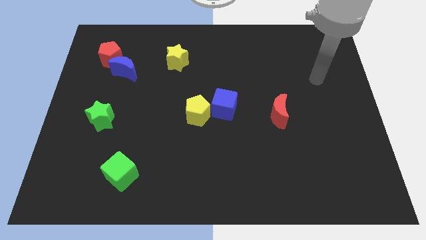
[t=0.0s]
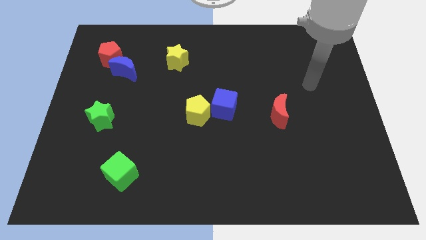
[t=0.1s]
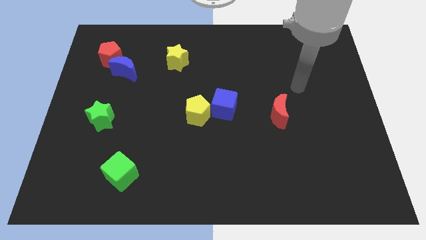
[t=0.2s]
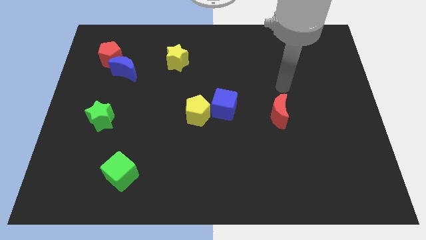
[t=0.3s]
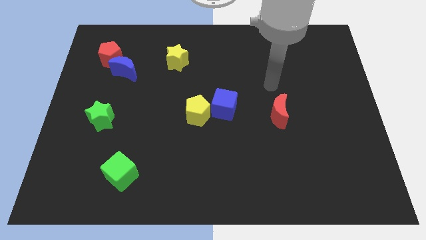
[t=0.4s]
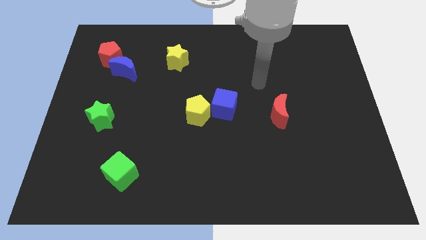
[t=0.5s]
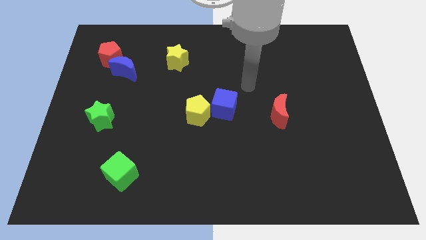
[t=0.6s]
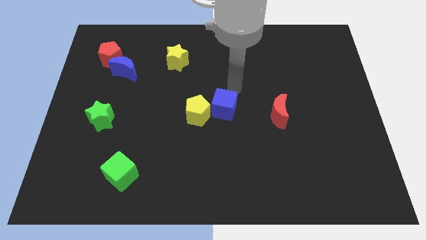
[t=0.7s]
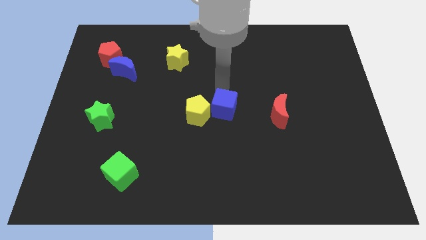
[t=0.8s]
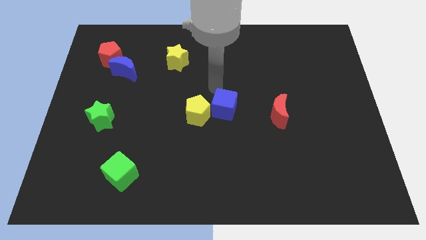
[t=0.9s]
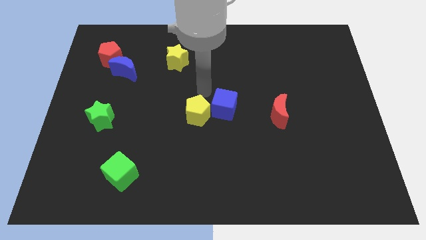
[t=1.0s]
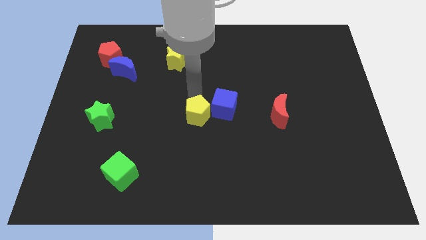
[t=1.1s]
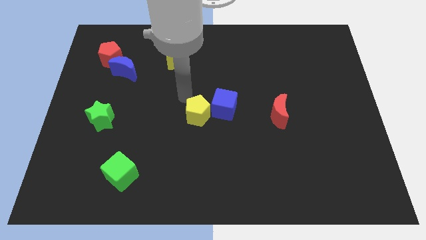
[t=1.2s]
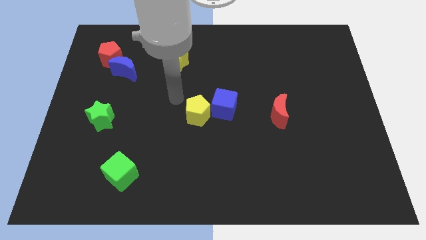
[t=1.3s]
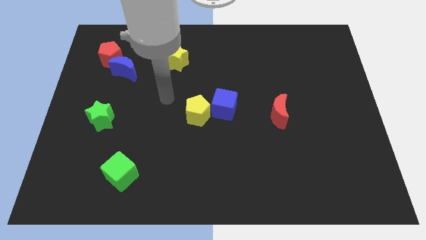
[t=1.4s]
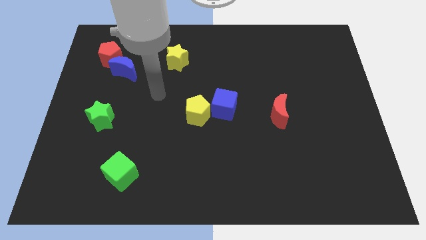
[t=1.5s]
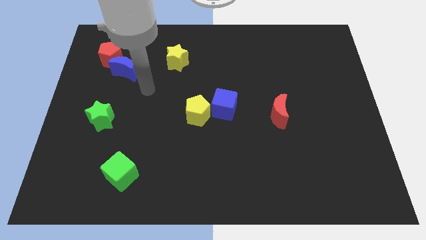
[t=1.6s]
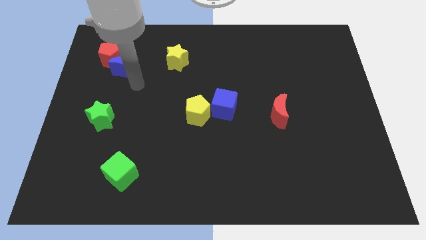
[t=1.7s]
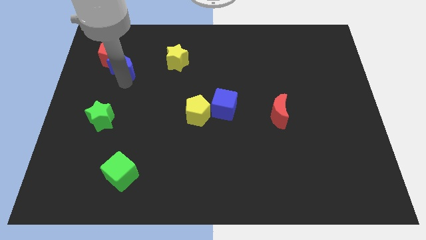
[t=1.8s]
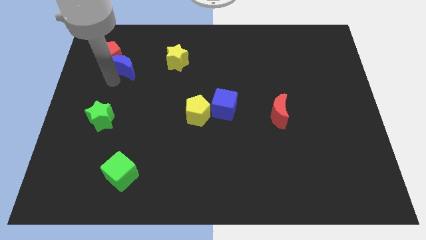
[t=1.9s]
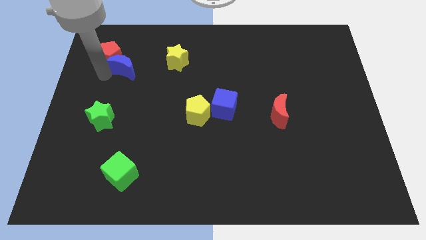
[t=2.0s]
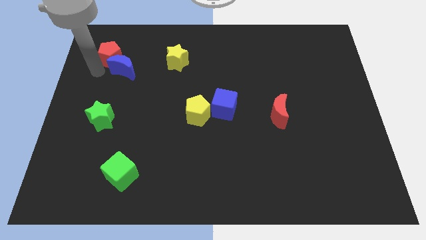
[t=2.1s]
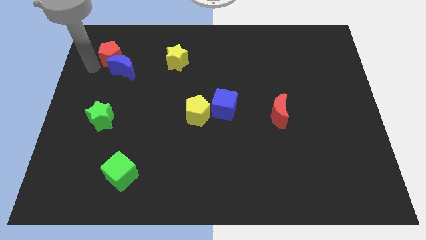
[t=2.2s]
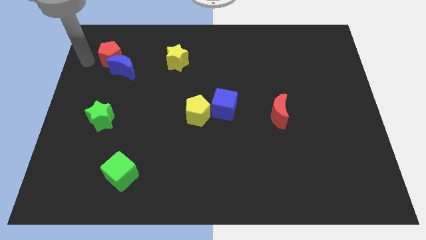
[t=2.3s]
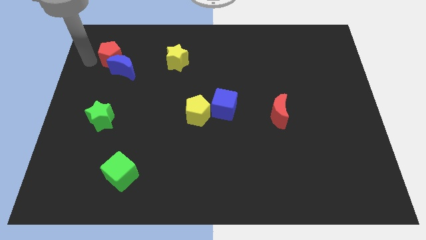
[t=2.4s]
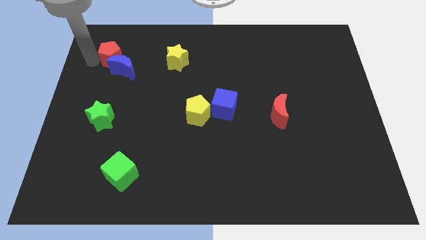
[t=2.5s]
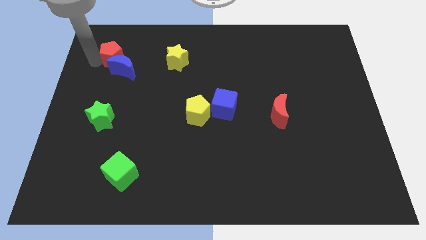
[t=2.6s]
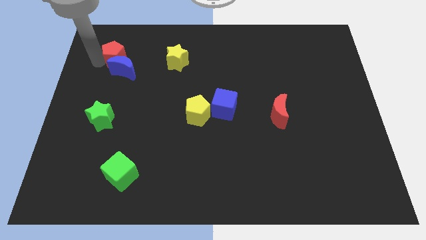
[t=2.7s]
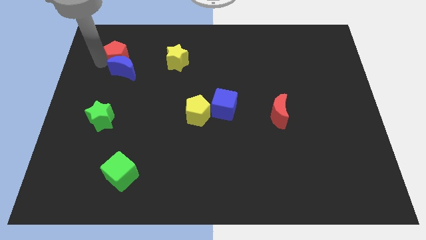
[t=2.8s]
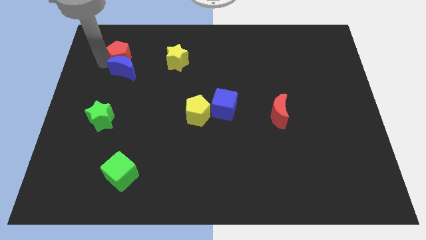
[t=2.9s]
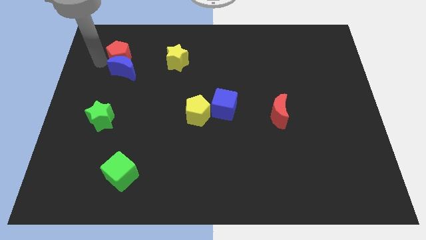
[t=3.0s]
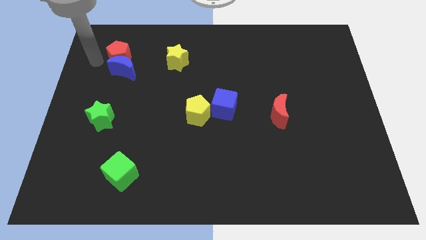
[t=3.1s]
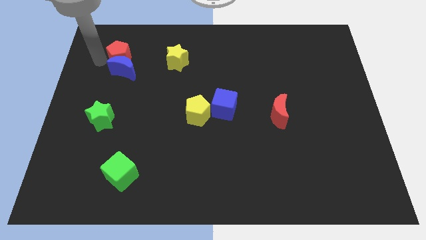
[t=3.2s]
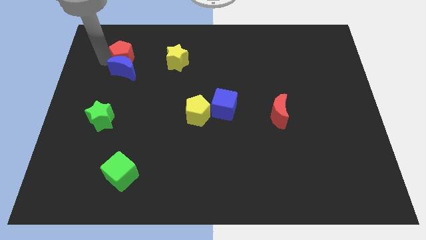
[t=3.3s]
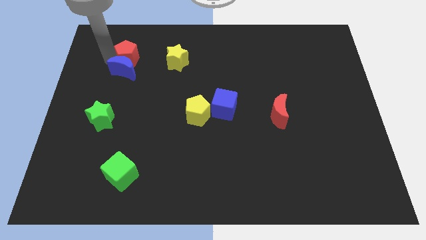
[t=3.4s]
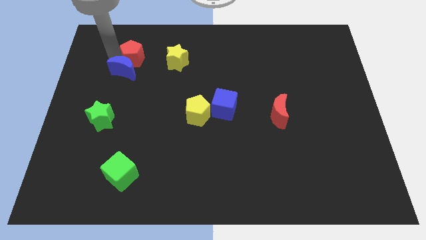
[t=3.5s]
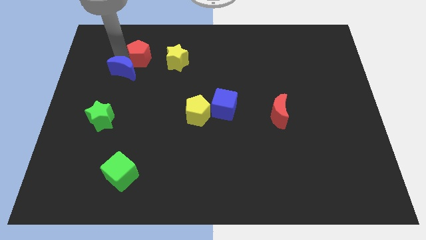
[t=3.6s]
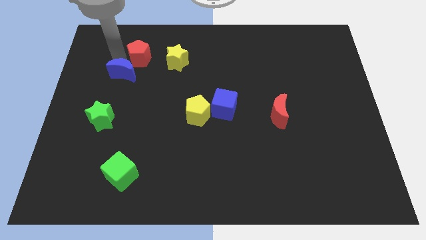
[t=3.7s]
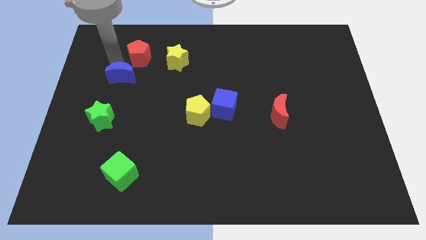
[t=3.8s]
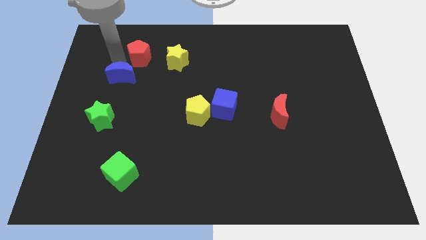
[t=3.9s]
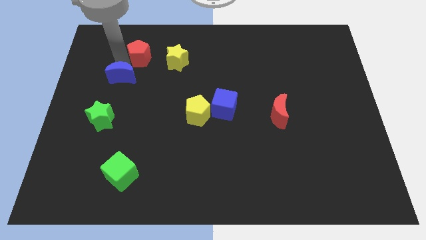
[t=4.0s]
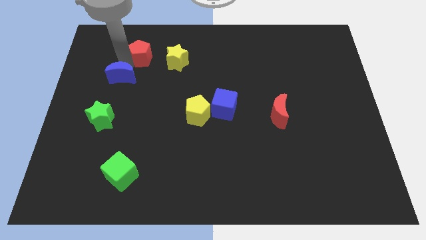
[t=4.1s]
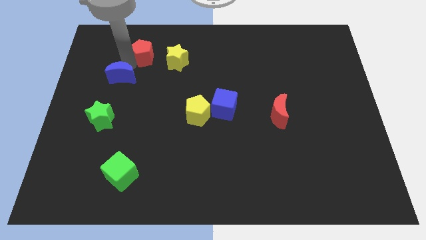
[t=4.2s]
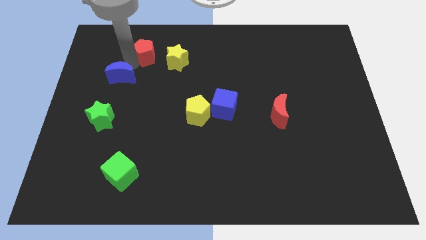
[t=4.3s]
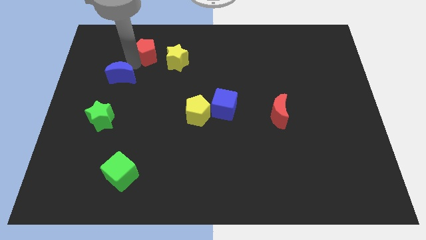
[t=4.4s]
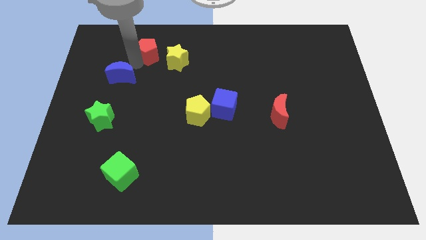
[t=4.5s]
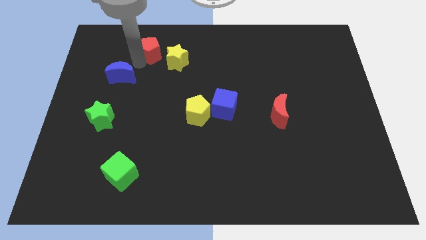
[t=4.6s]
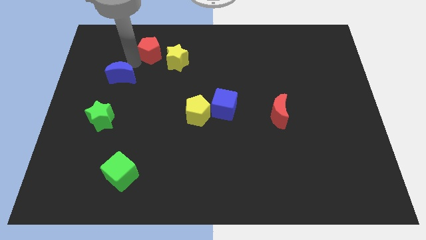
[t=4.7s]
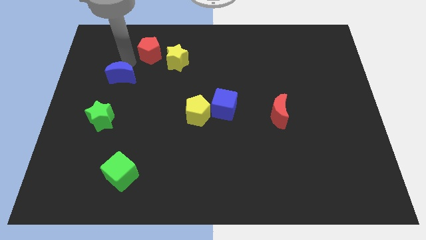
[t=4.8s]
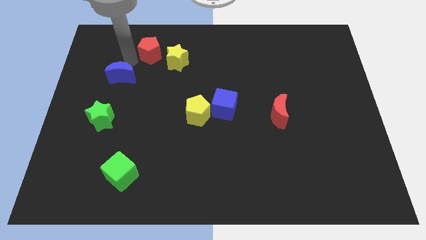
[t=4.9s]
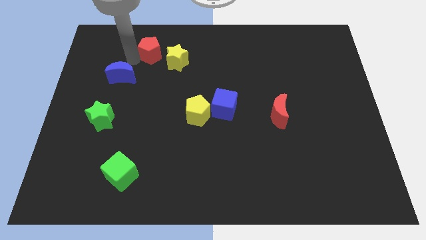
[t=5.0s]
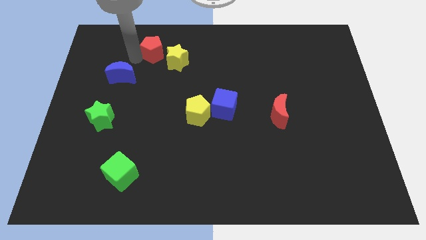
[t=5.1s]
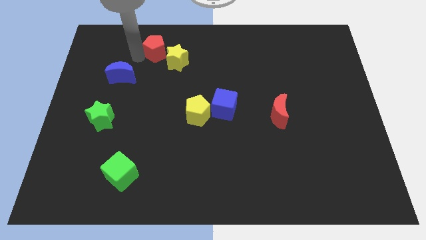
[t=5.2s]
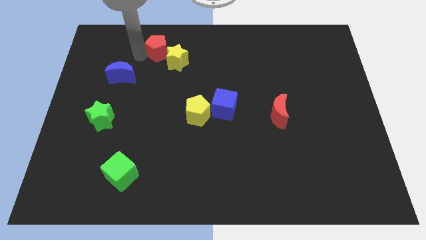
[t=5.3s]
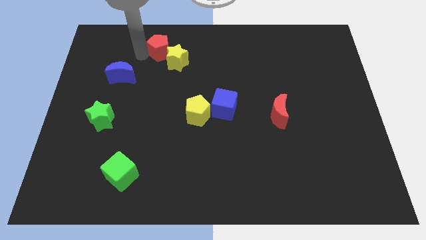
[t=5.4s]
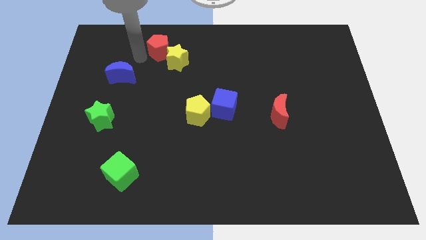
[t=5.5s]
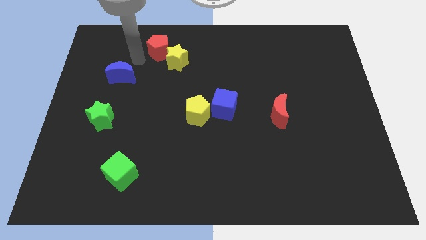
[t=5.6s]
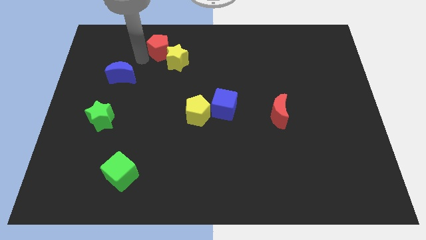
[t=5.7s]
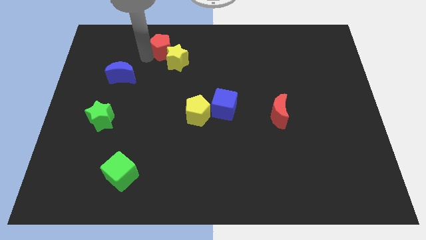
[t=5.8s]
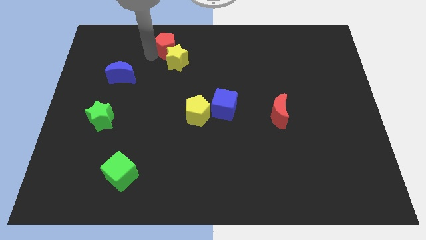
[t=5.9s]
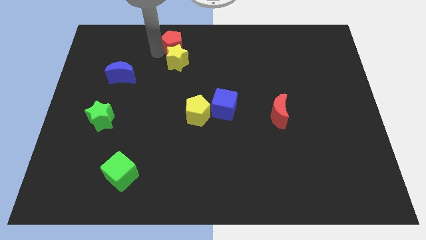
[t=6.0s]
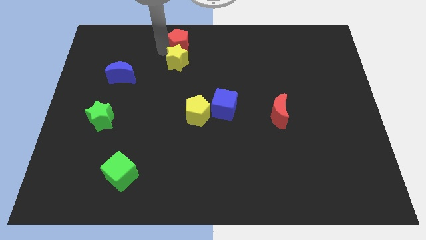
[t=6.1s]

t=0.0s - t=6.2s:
move the red pentagon to the towards your base
